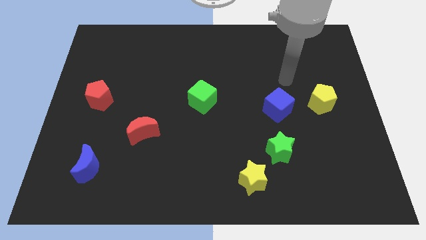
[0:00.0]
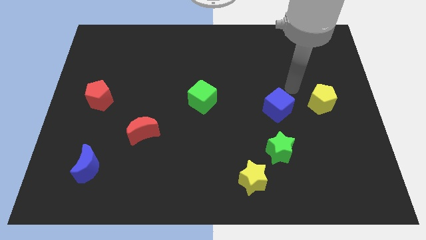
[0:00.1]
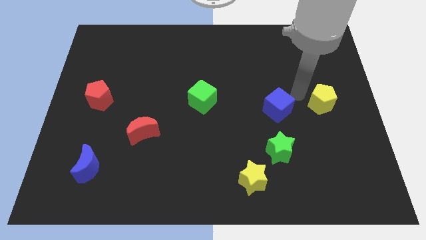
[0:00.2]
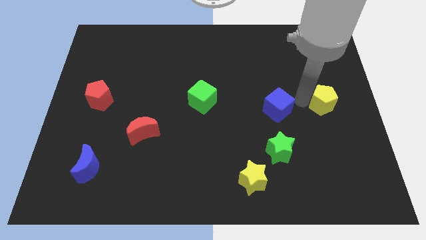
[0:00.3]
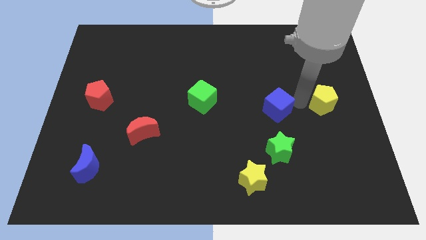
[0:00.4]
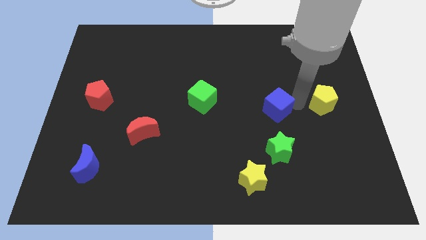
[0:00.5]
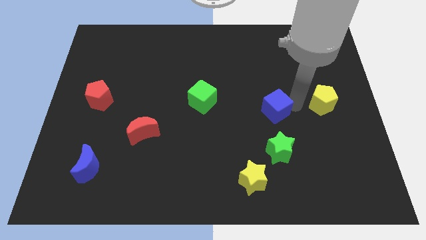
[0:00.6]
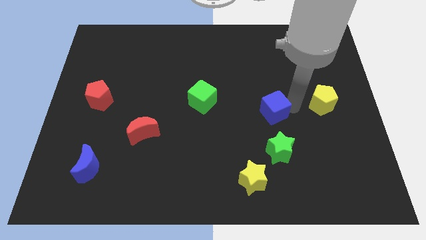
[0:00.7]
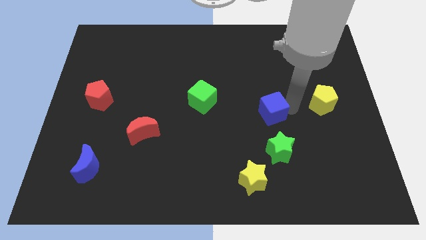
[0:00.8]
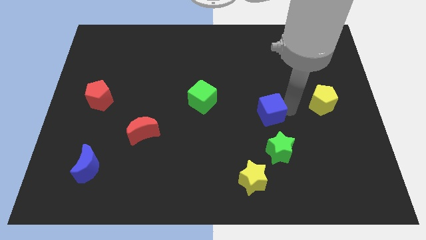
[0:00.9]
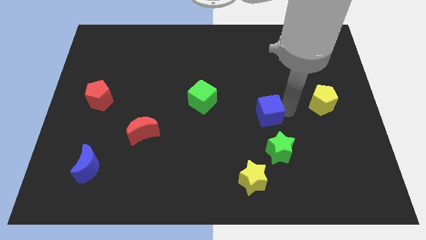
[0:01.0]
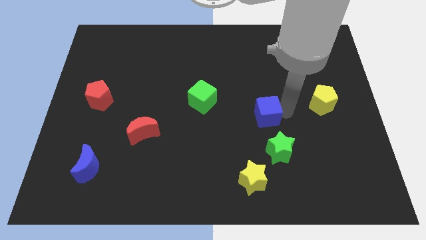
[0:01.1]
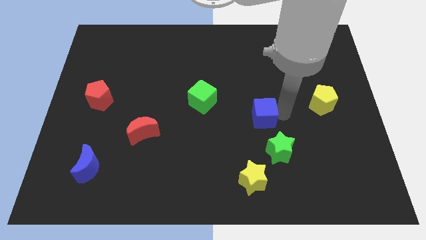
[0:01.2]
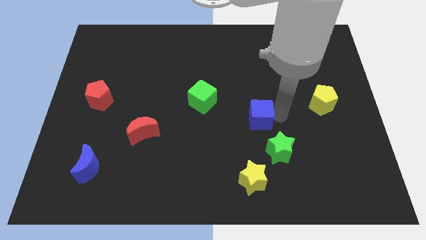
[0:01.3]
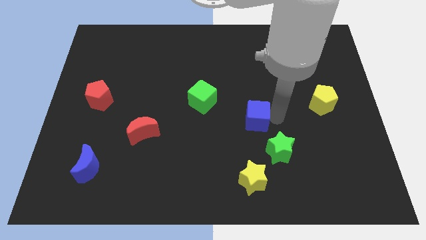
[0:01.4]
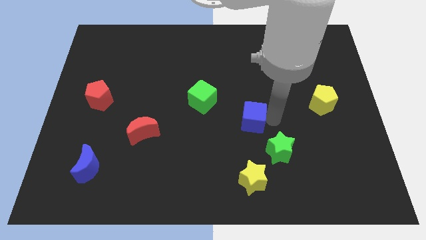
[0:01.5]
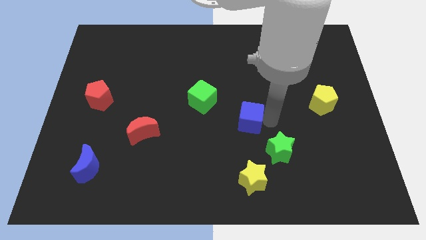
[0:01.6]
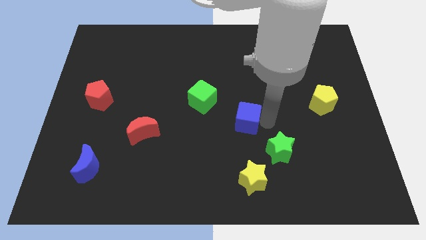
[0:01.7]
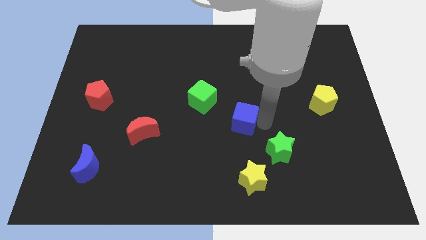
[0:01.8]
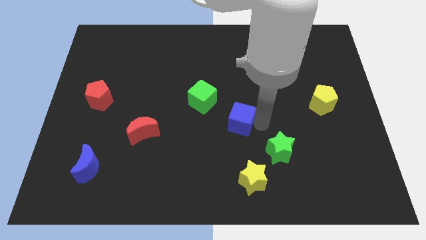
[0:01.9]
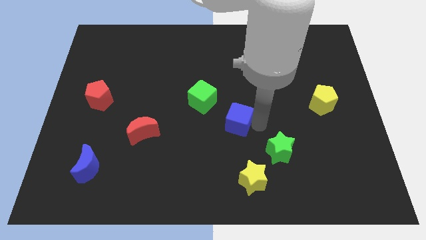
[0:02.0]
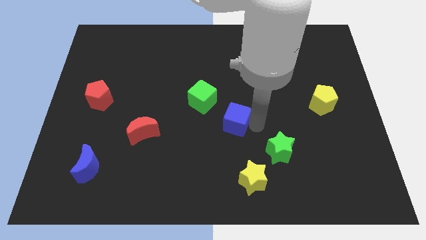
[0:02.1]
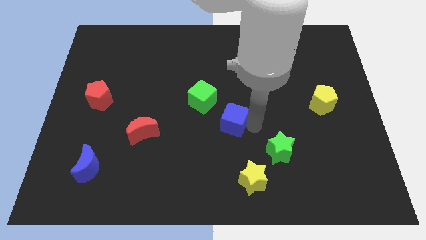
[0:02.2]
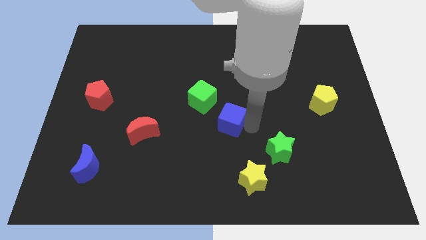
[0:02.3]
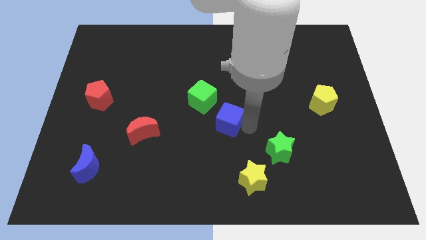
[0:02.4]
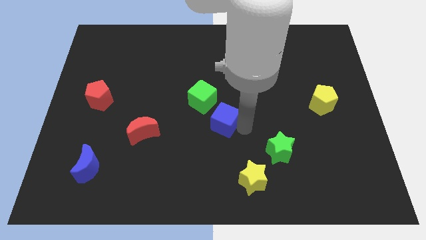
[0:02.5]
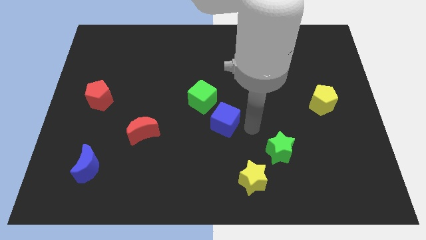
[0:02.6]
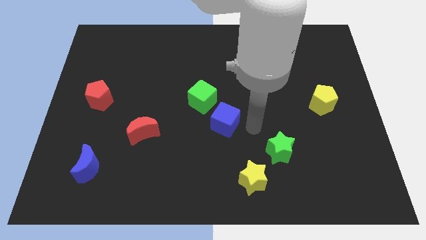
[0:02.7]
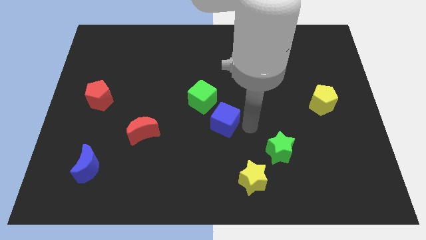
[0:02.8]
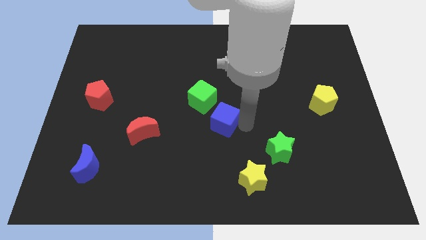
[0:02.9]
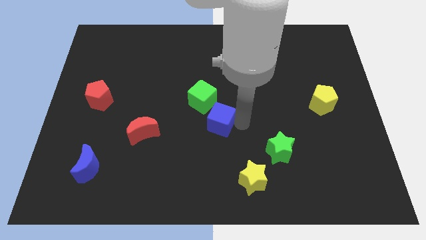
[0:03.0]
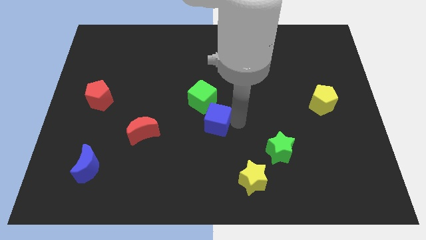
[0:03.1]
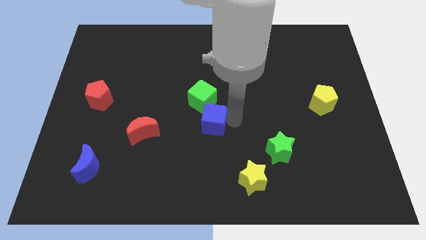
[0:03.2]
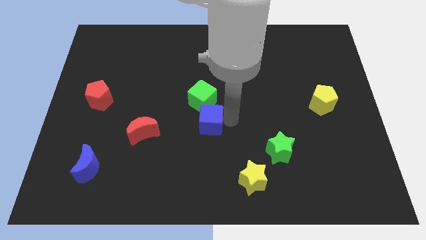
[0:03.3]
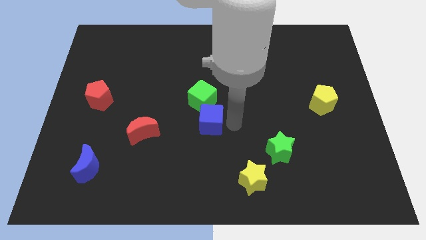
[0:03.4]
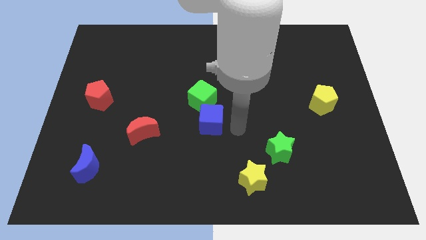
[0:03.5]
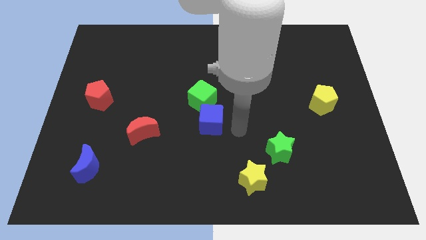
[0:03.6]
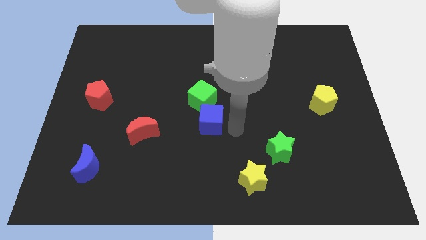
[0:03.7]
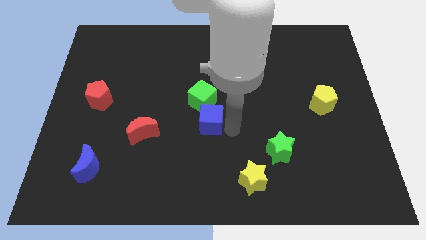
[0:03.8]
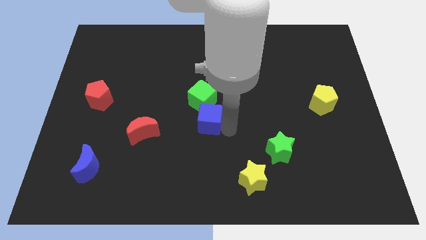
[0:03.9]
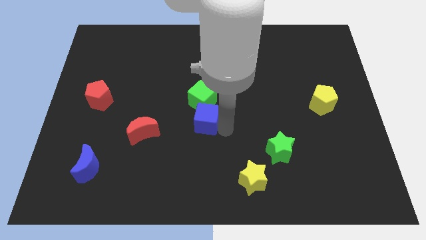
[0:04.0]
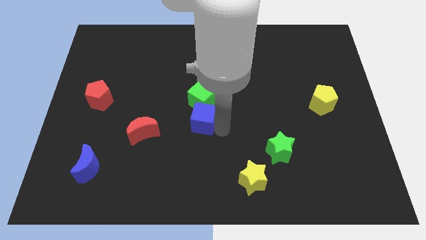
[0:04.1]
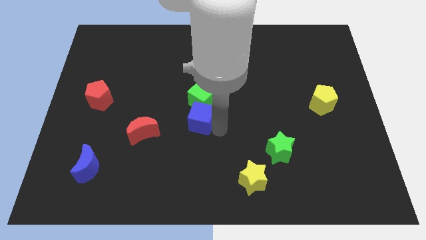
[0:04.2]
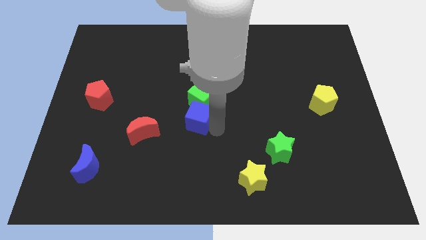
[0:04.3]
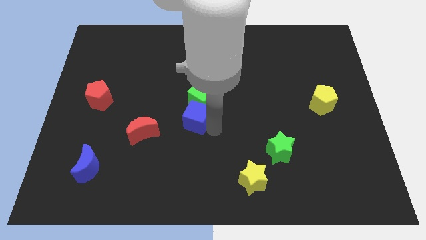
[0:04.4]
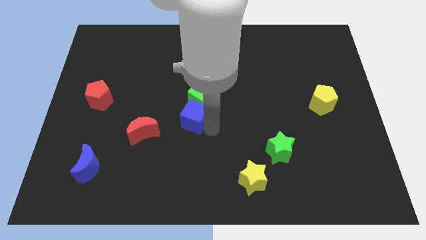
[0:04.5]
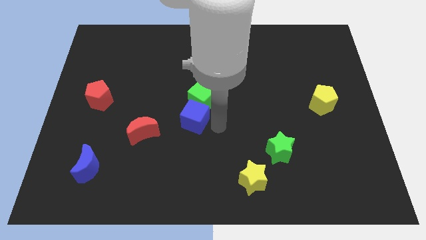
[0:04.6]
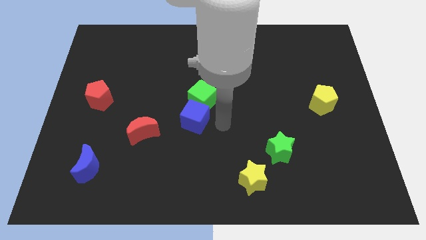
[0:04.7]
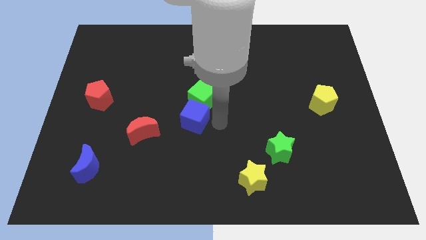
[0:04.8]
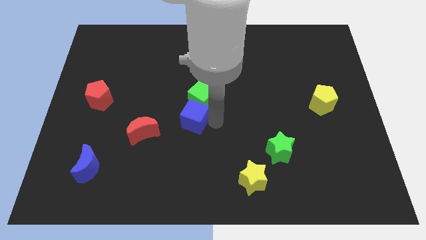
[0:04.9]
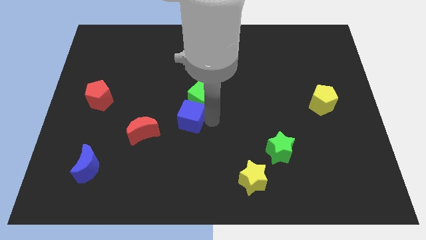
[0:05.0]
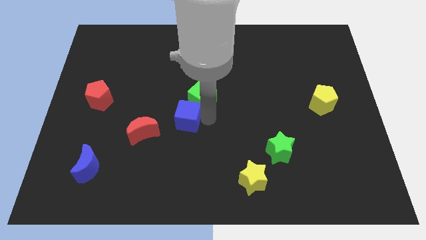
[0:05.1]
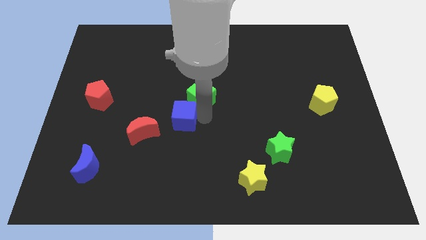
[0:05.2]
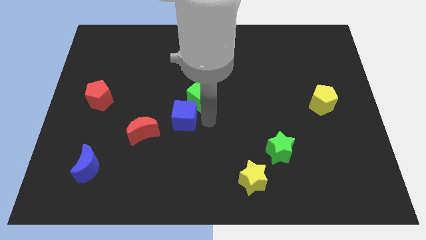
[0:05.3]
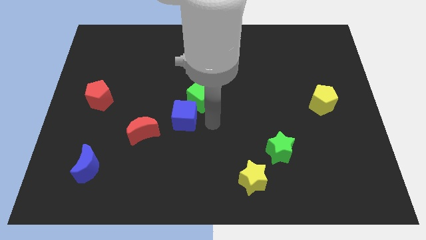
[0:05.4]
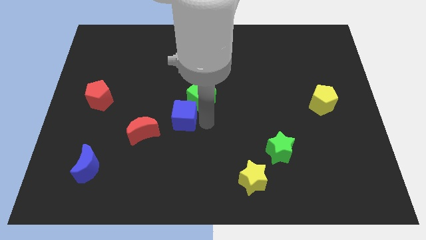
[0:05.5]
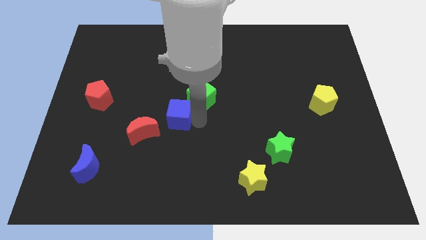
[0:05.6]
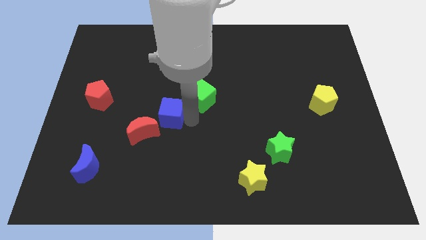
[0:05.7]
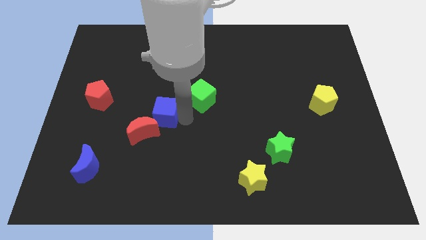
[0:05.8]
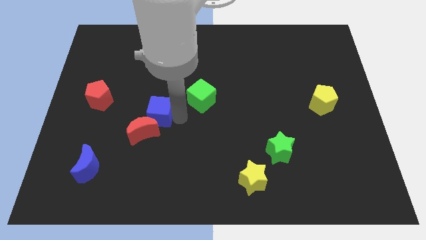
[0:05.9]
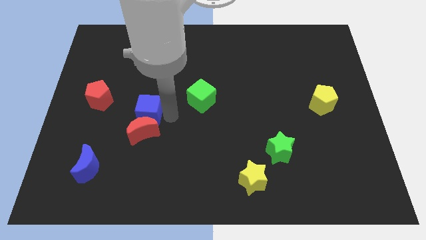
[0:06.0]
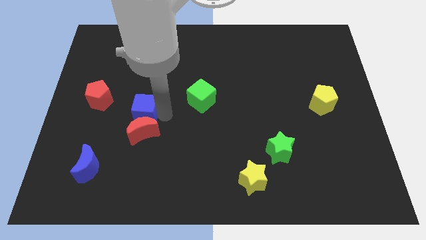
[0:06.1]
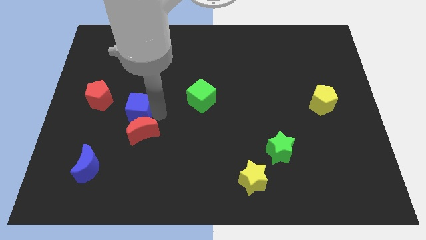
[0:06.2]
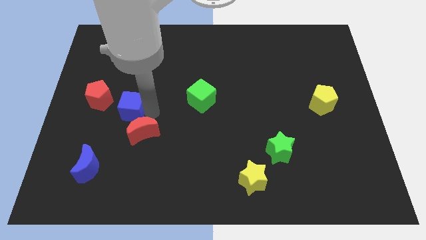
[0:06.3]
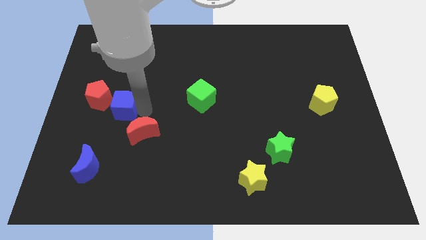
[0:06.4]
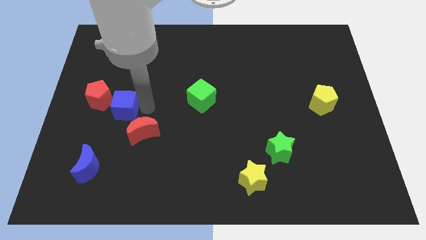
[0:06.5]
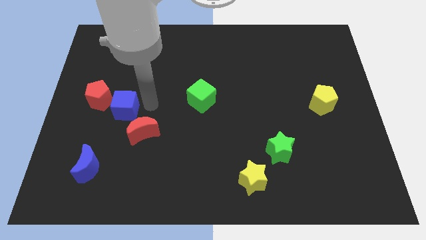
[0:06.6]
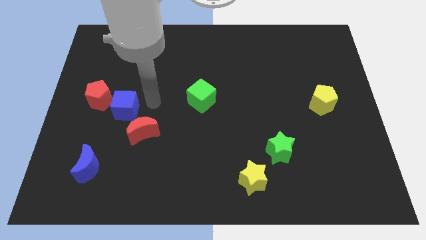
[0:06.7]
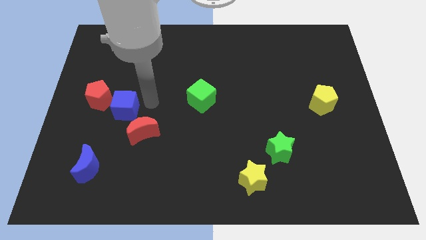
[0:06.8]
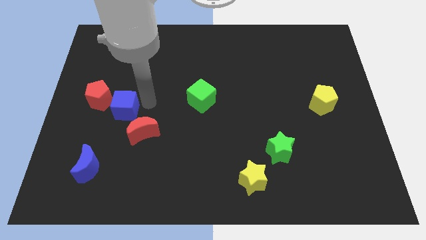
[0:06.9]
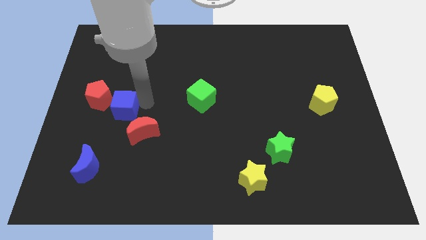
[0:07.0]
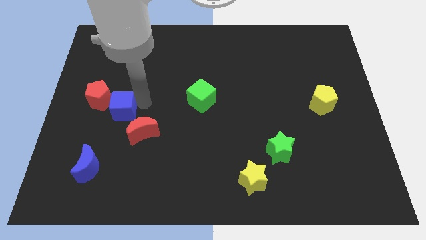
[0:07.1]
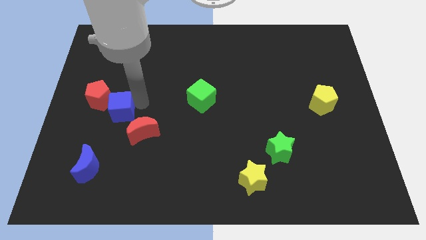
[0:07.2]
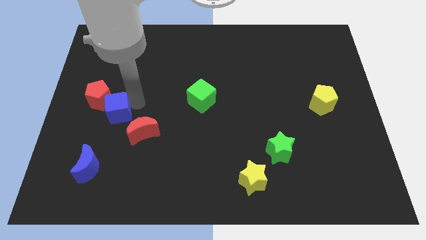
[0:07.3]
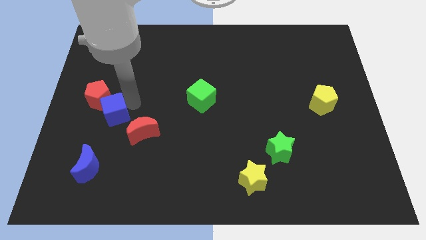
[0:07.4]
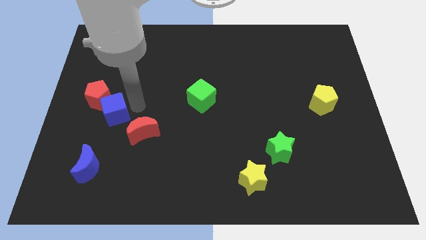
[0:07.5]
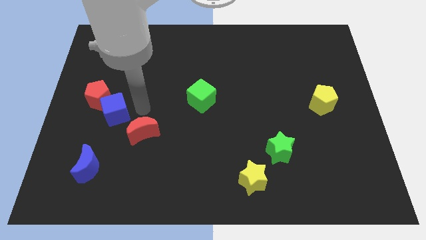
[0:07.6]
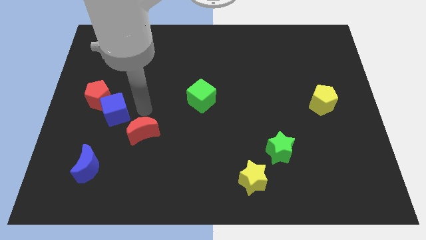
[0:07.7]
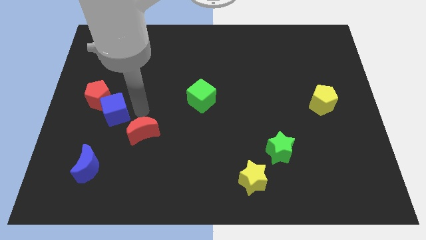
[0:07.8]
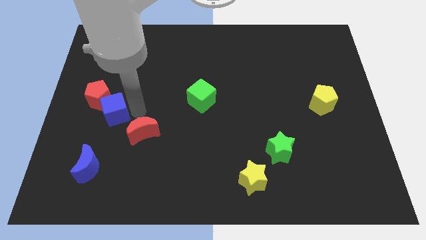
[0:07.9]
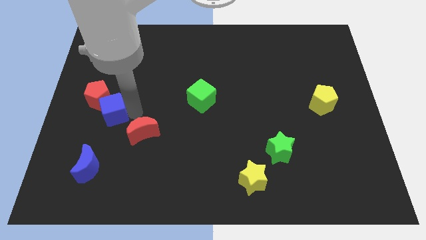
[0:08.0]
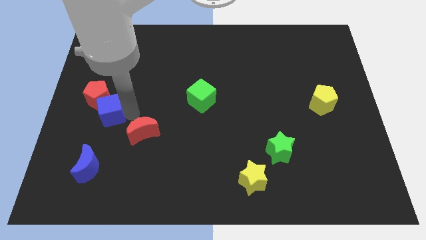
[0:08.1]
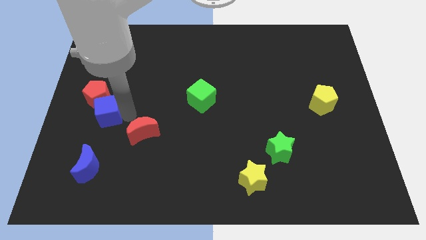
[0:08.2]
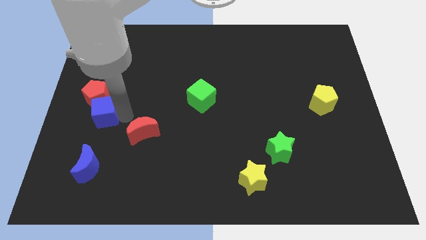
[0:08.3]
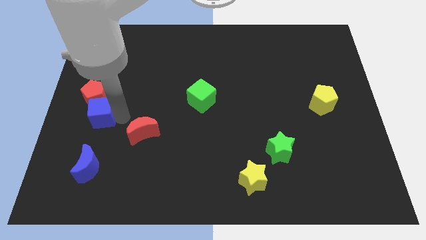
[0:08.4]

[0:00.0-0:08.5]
push the blue cube to the left side
